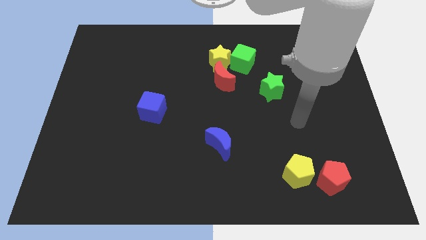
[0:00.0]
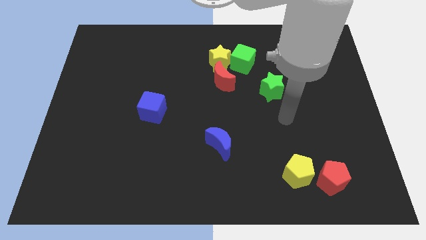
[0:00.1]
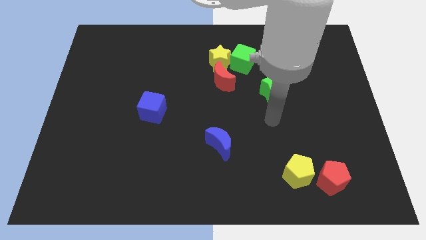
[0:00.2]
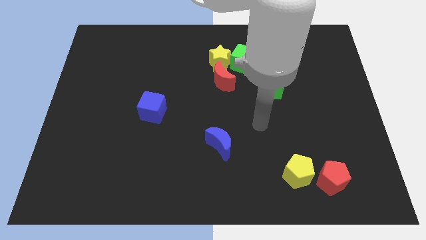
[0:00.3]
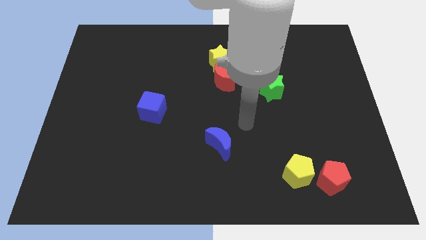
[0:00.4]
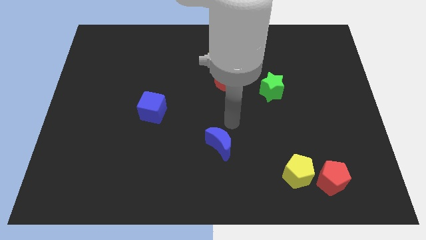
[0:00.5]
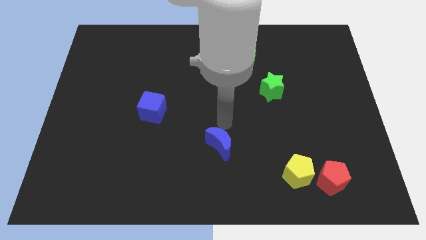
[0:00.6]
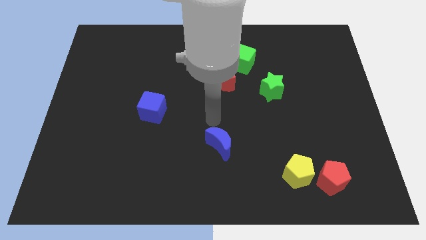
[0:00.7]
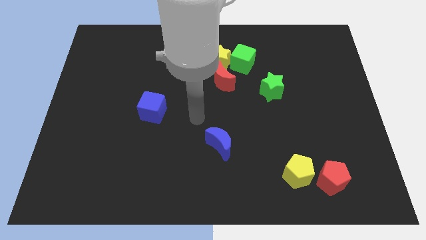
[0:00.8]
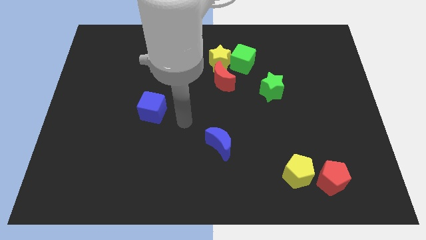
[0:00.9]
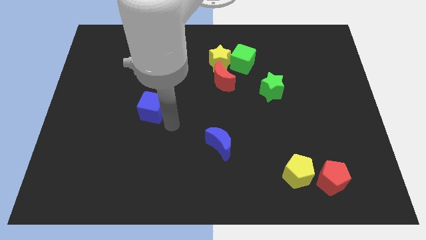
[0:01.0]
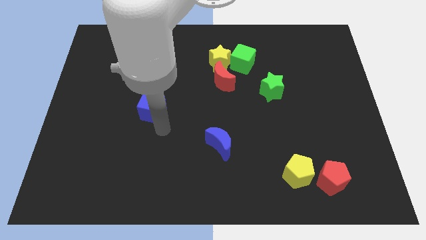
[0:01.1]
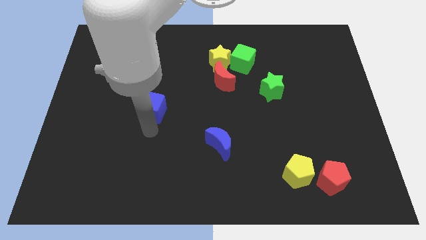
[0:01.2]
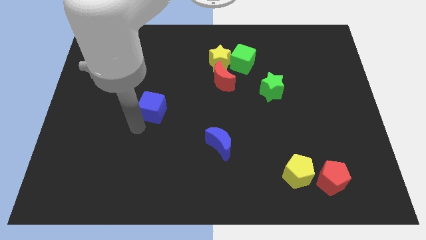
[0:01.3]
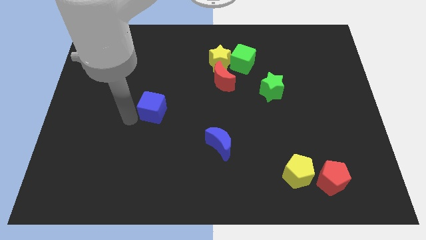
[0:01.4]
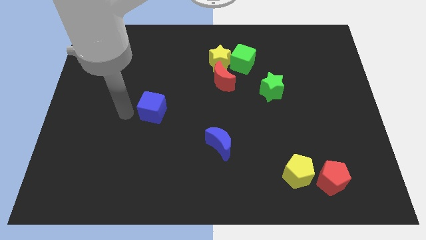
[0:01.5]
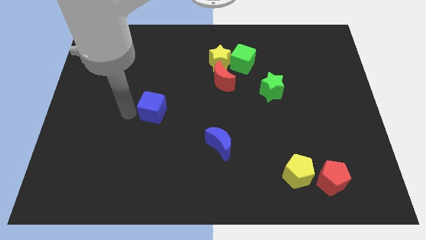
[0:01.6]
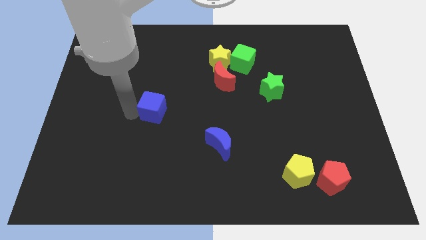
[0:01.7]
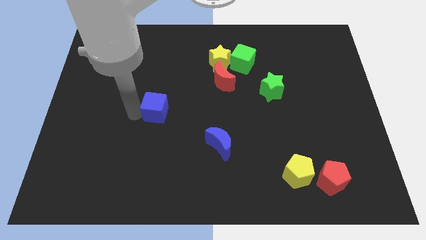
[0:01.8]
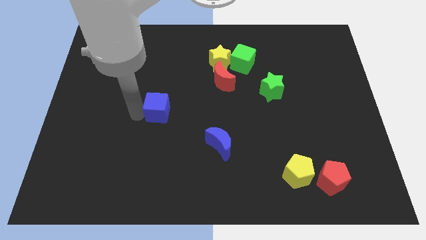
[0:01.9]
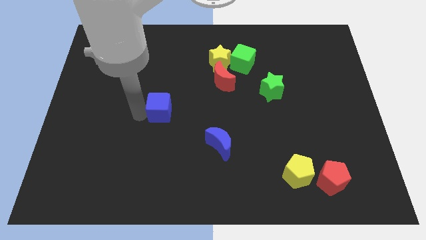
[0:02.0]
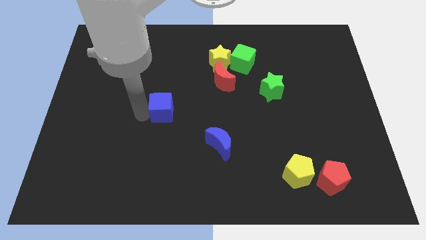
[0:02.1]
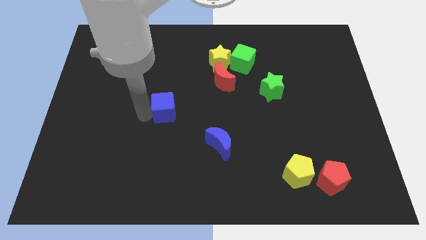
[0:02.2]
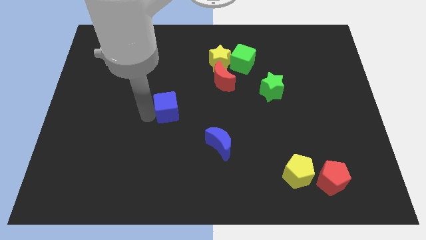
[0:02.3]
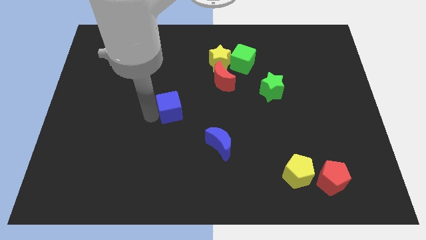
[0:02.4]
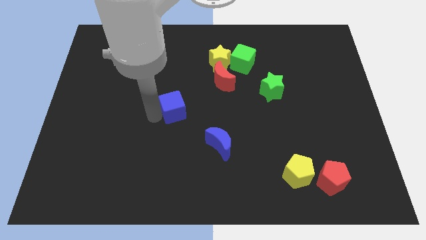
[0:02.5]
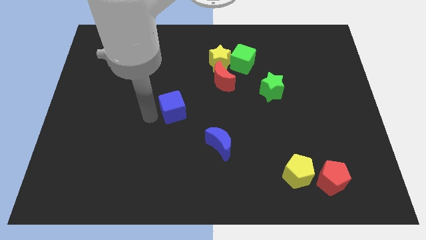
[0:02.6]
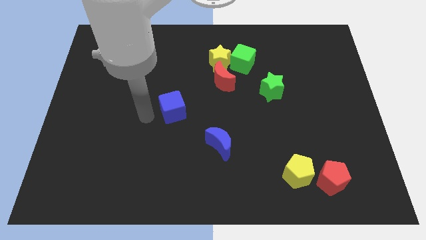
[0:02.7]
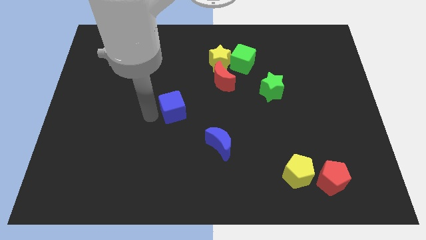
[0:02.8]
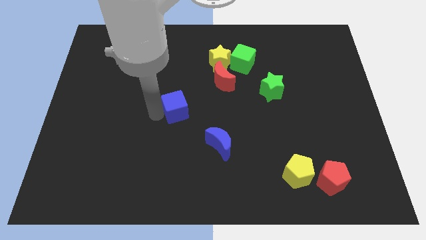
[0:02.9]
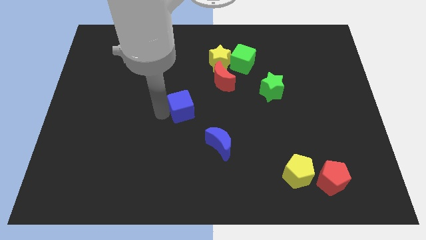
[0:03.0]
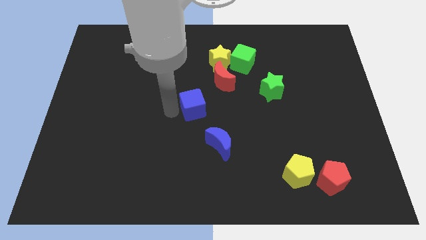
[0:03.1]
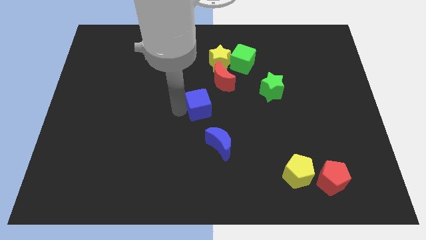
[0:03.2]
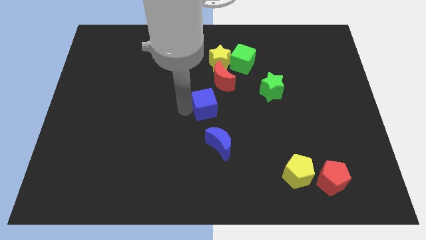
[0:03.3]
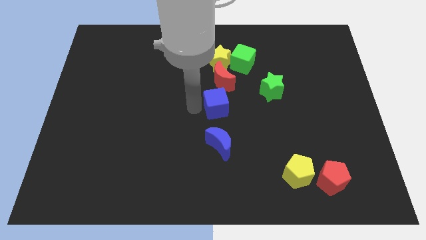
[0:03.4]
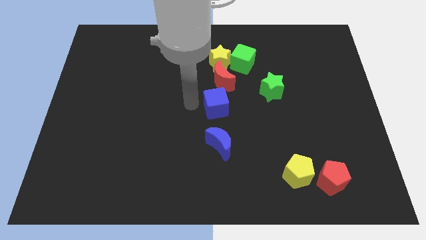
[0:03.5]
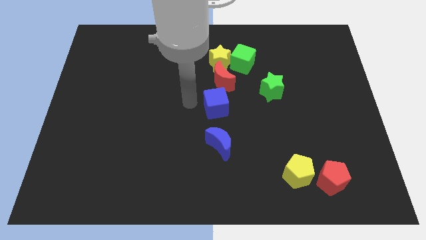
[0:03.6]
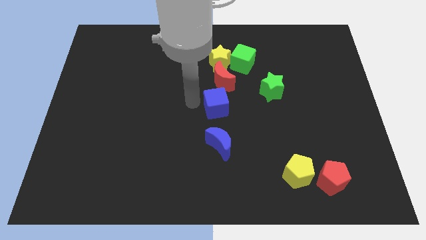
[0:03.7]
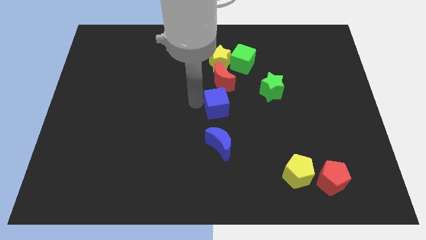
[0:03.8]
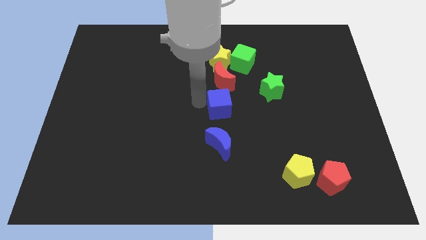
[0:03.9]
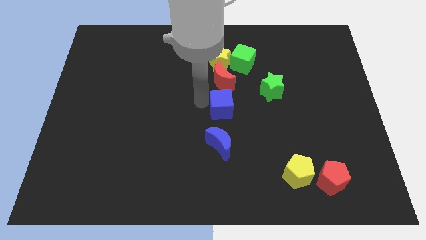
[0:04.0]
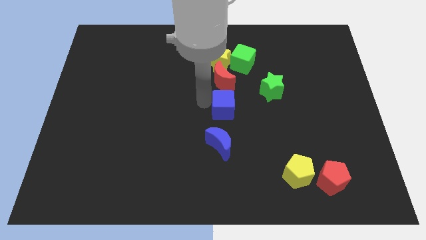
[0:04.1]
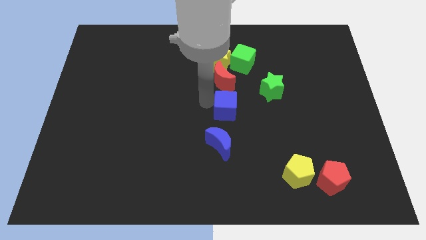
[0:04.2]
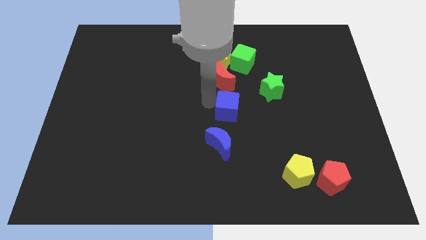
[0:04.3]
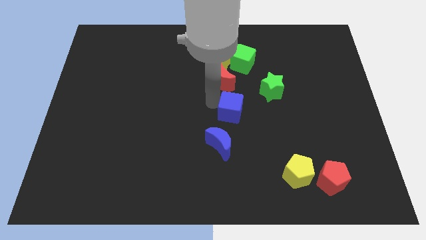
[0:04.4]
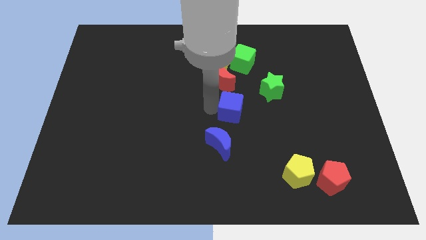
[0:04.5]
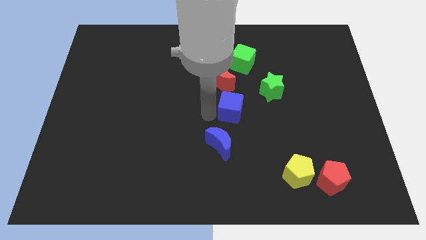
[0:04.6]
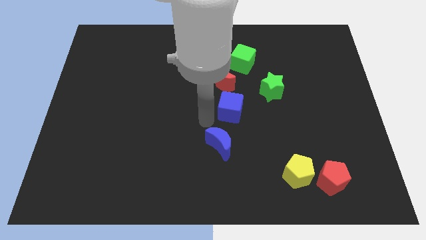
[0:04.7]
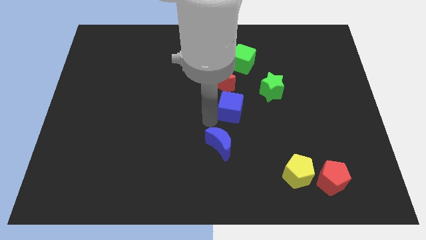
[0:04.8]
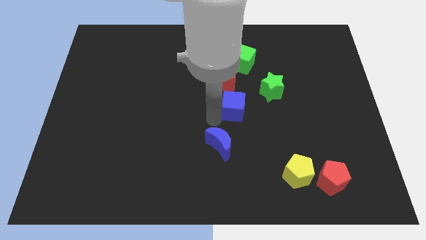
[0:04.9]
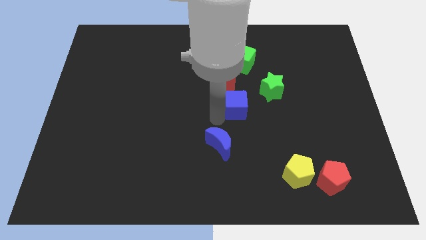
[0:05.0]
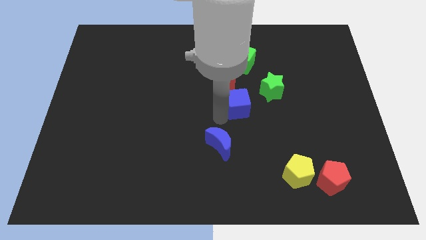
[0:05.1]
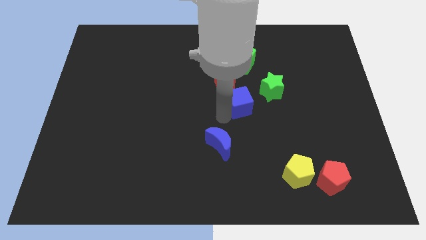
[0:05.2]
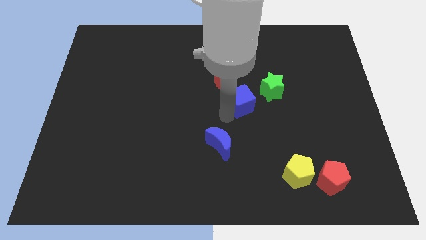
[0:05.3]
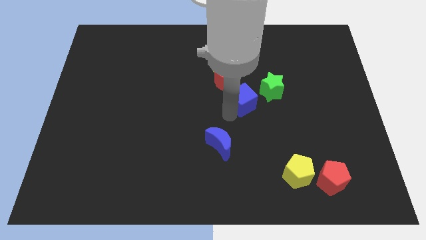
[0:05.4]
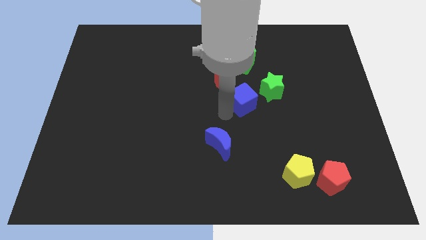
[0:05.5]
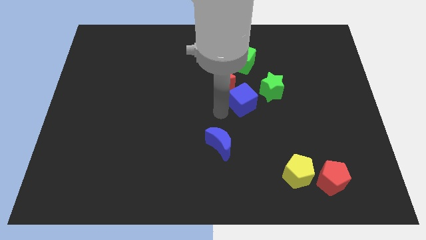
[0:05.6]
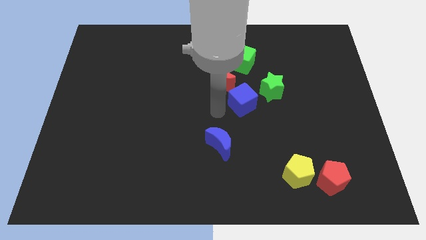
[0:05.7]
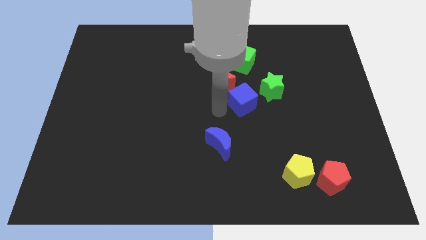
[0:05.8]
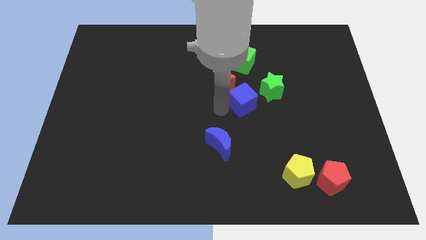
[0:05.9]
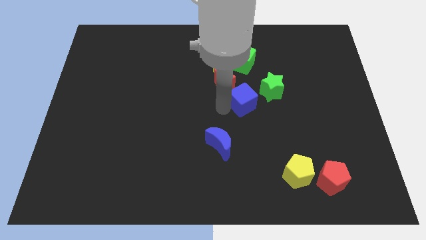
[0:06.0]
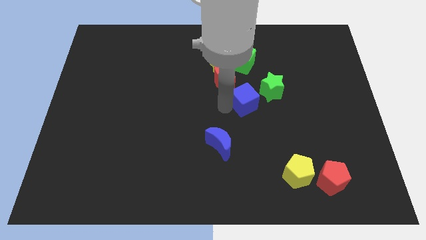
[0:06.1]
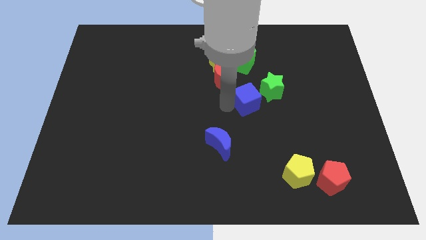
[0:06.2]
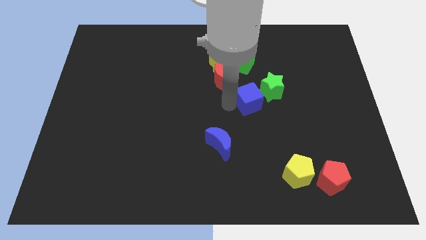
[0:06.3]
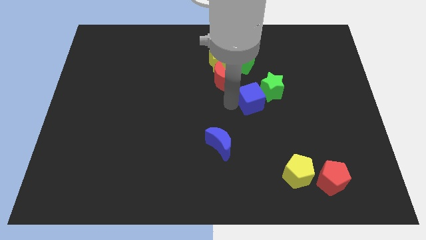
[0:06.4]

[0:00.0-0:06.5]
push the blue cube close to the green star
